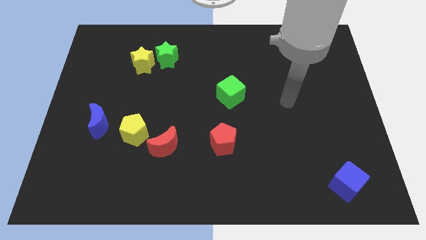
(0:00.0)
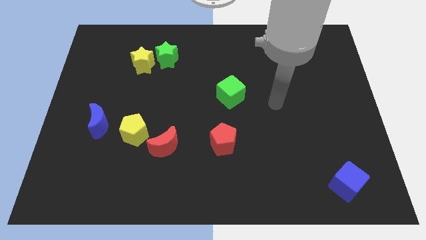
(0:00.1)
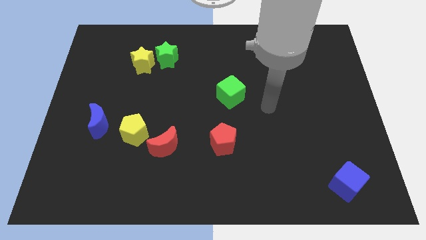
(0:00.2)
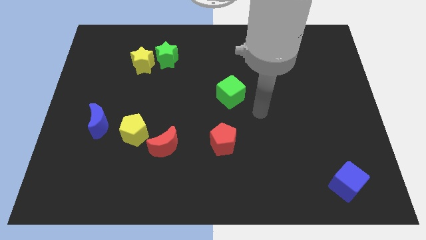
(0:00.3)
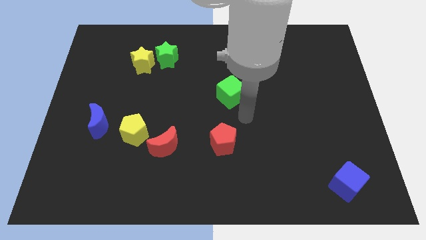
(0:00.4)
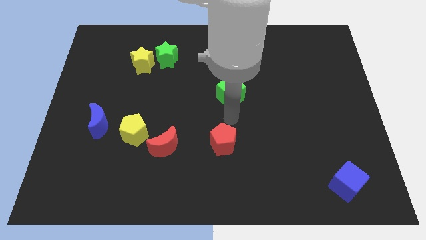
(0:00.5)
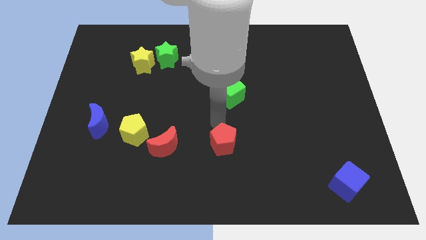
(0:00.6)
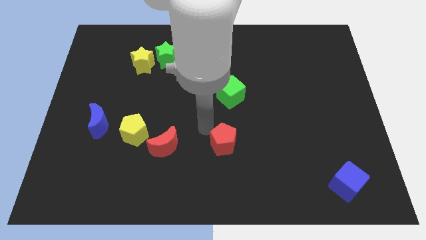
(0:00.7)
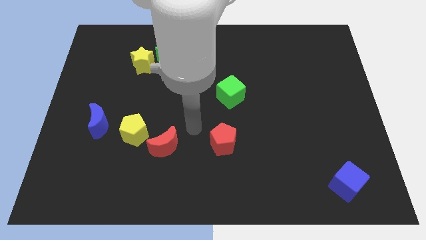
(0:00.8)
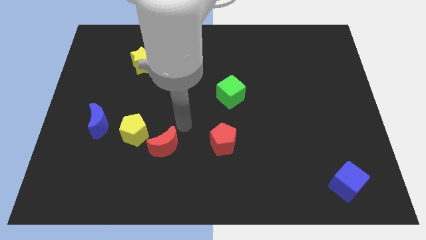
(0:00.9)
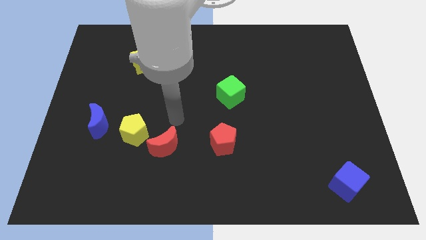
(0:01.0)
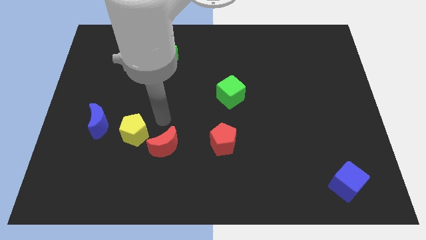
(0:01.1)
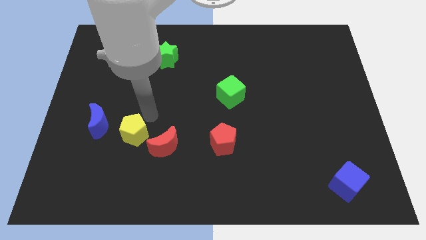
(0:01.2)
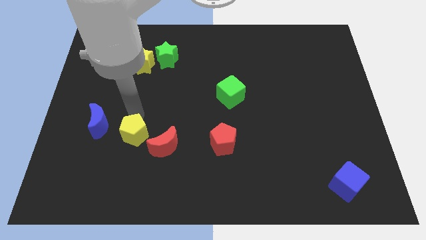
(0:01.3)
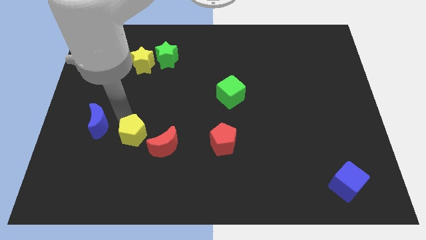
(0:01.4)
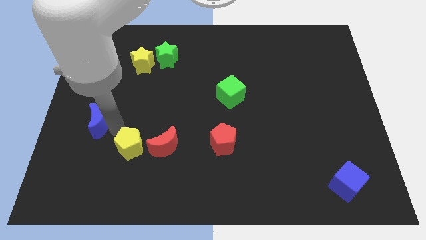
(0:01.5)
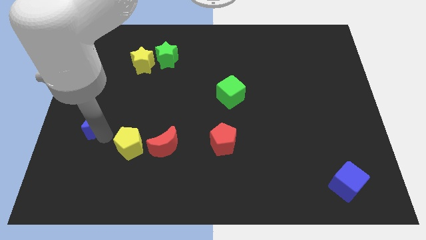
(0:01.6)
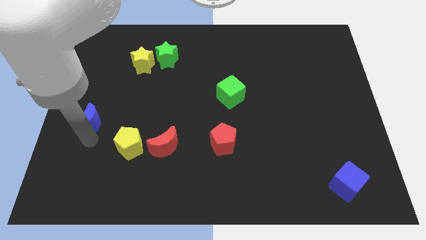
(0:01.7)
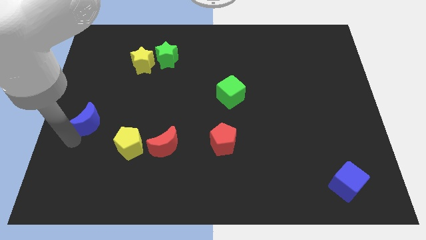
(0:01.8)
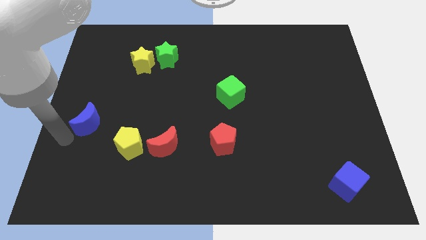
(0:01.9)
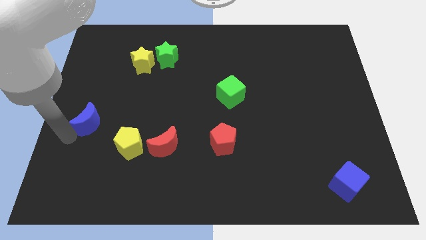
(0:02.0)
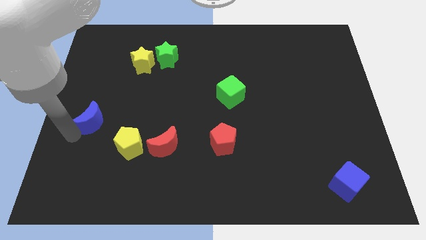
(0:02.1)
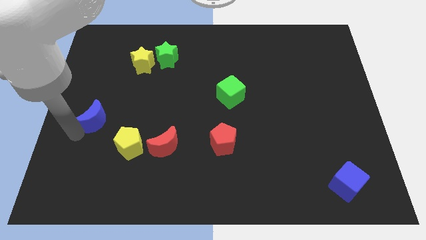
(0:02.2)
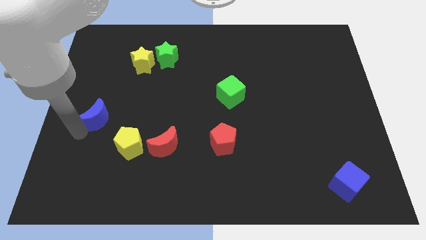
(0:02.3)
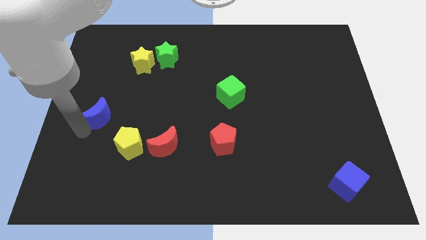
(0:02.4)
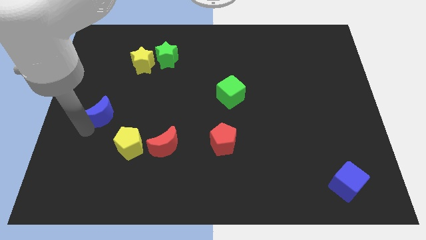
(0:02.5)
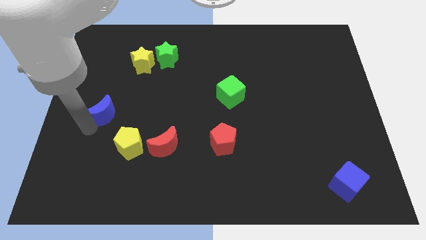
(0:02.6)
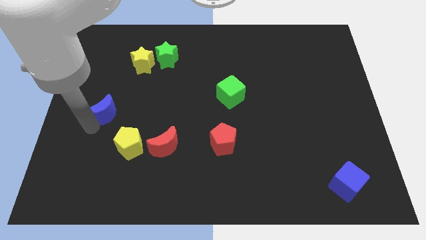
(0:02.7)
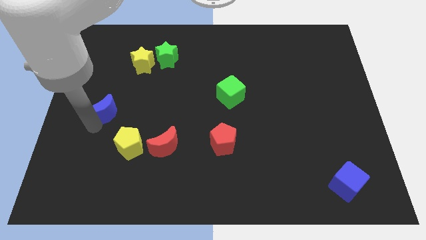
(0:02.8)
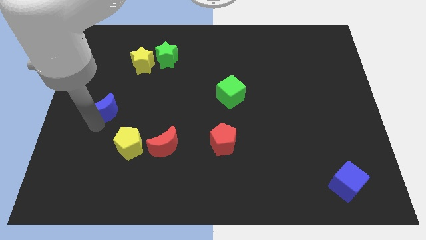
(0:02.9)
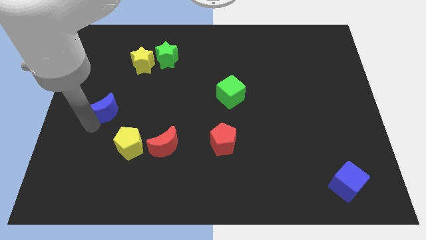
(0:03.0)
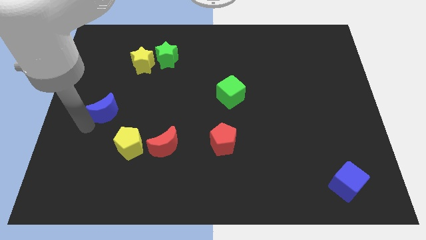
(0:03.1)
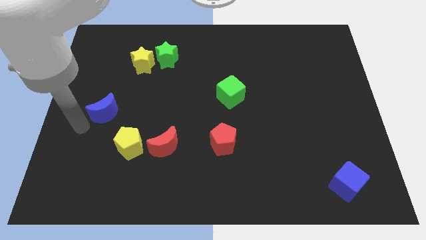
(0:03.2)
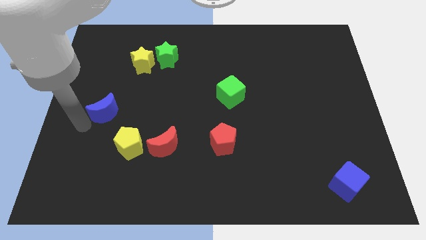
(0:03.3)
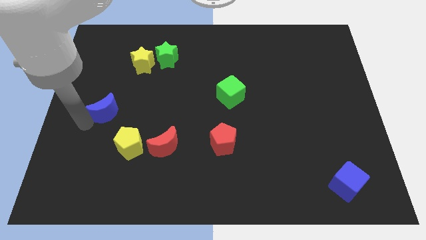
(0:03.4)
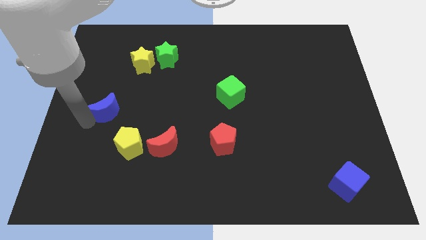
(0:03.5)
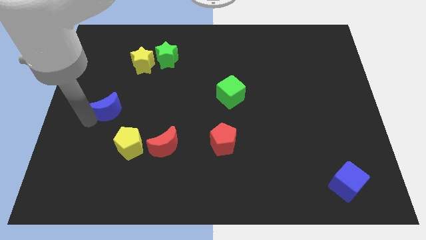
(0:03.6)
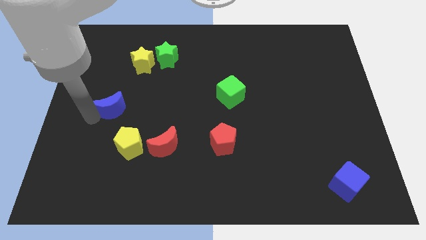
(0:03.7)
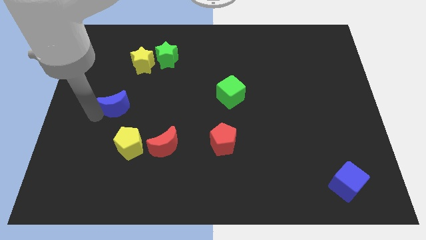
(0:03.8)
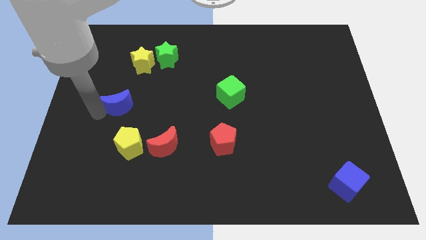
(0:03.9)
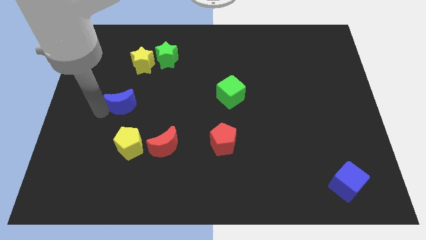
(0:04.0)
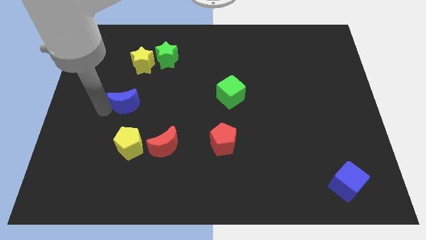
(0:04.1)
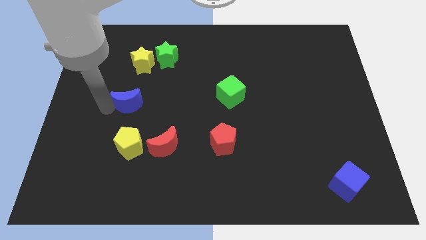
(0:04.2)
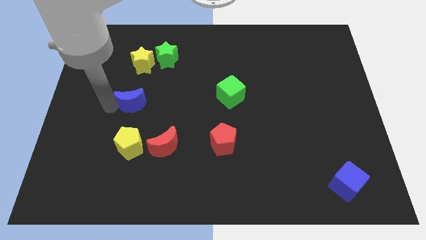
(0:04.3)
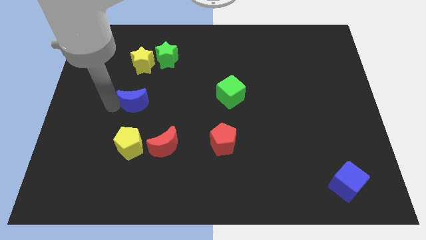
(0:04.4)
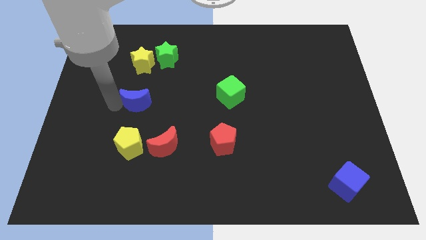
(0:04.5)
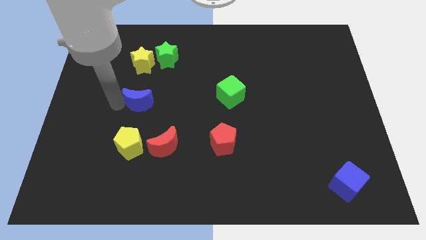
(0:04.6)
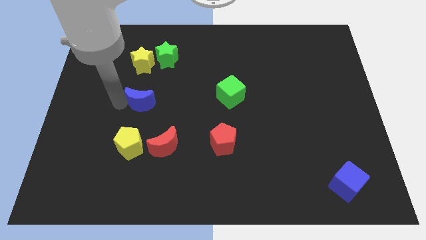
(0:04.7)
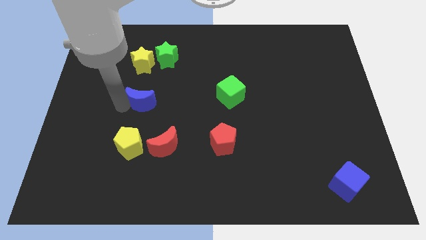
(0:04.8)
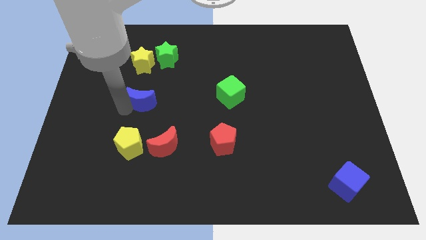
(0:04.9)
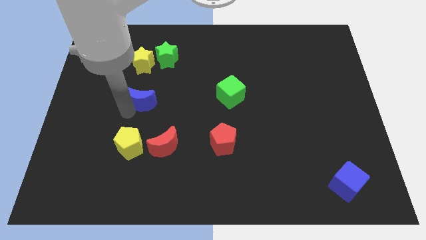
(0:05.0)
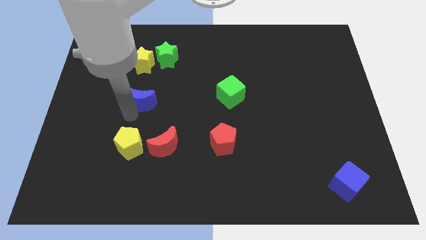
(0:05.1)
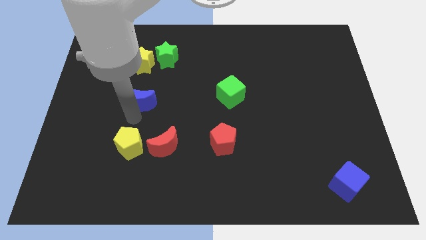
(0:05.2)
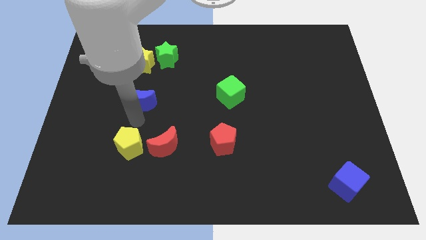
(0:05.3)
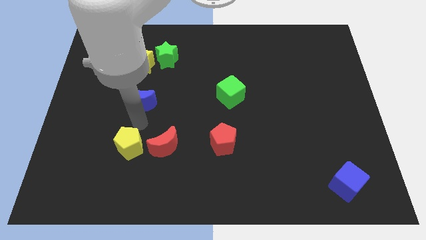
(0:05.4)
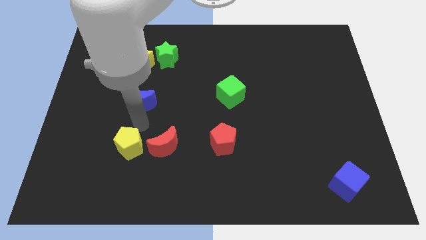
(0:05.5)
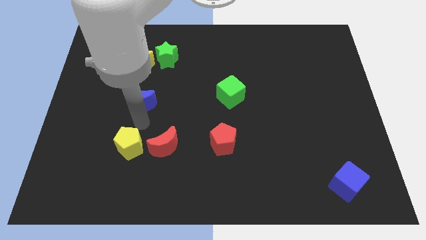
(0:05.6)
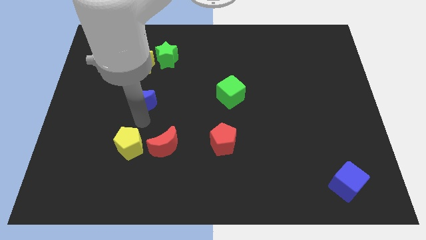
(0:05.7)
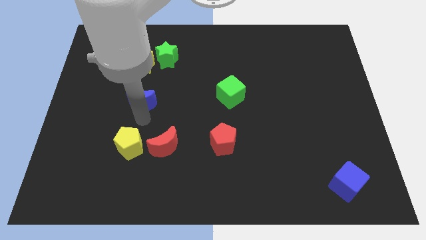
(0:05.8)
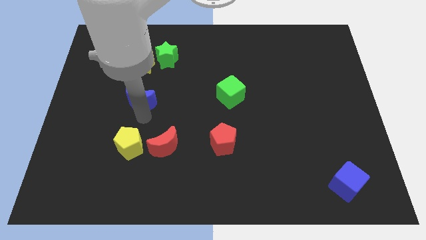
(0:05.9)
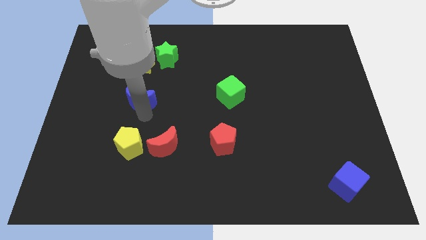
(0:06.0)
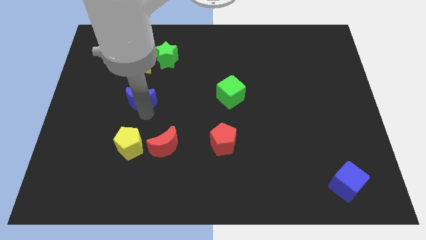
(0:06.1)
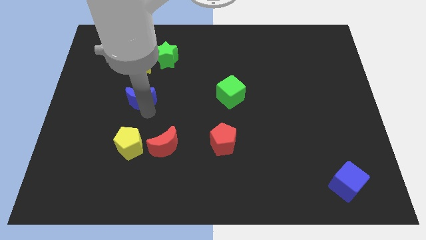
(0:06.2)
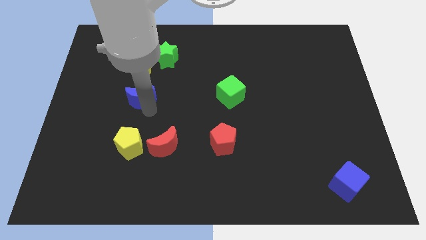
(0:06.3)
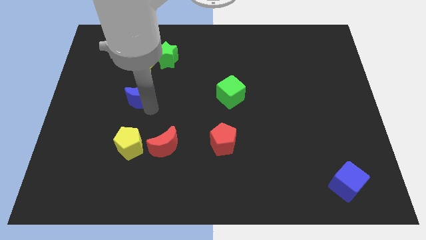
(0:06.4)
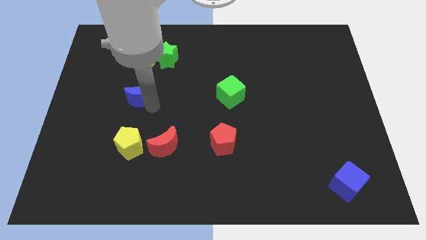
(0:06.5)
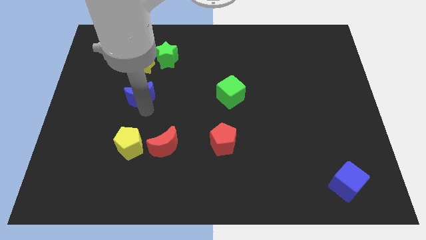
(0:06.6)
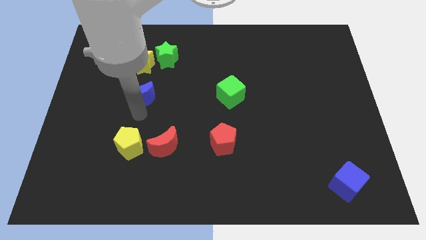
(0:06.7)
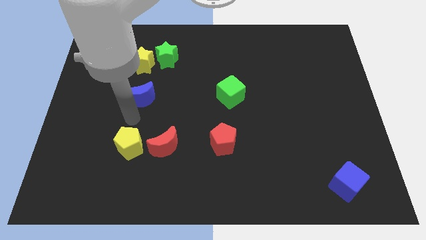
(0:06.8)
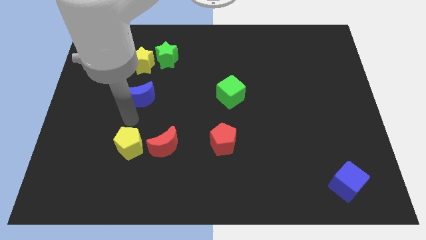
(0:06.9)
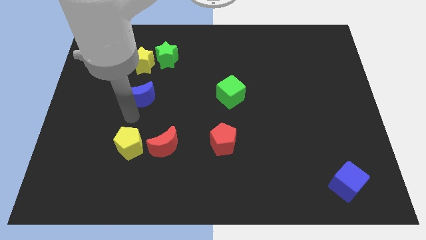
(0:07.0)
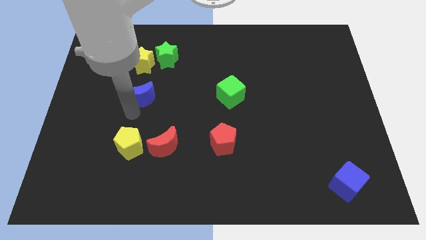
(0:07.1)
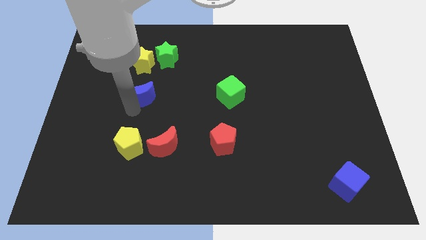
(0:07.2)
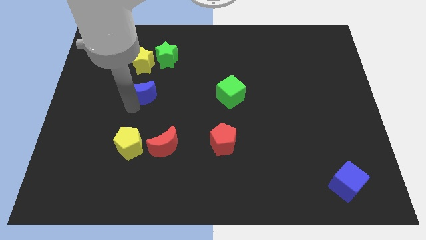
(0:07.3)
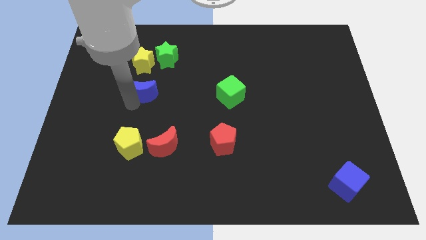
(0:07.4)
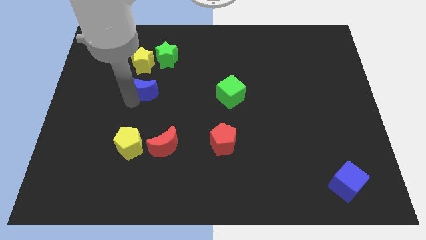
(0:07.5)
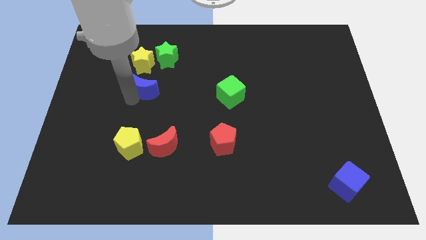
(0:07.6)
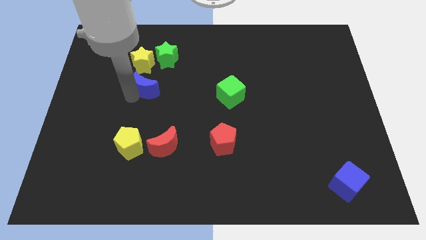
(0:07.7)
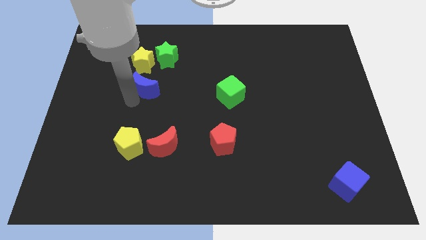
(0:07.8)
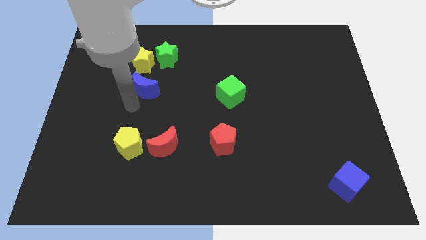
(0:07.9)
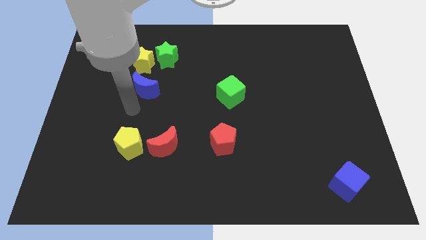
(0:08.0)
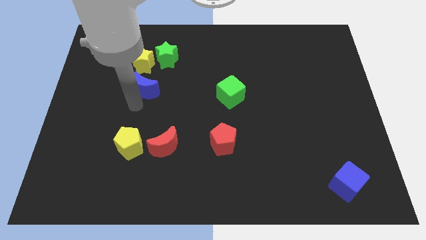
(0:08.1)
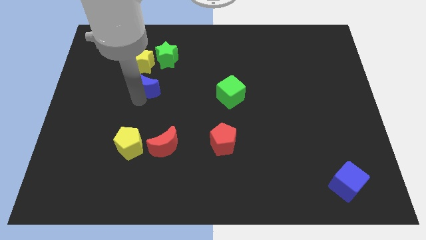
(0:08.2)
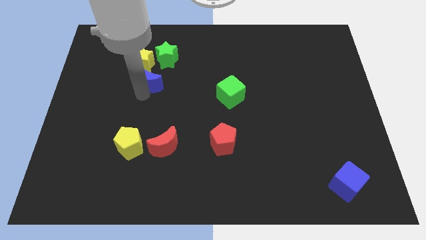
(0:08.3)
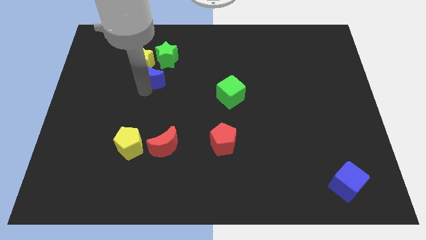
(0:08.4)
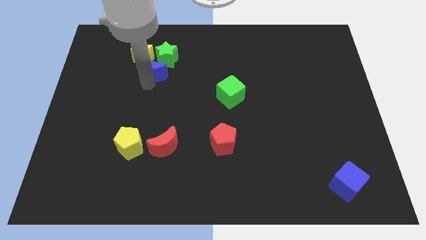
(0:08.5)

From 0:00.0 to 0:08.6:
push the blue moon towards the green star
